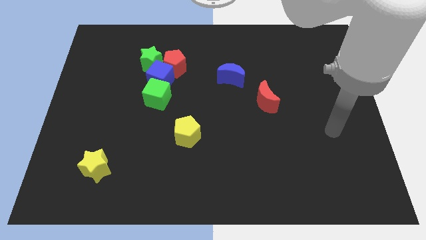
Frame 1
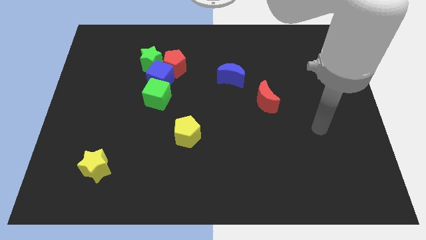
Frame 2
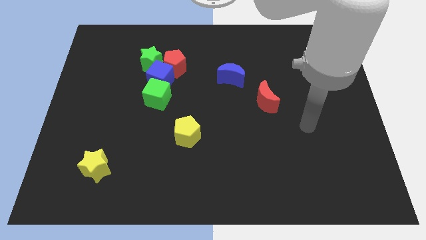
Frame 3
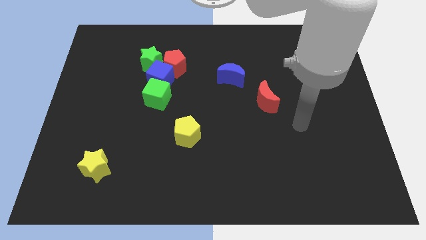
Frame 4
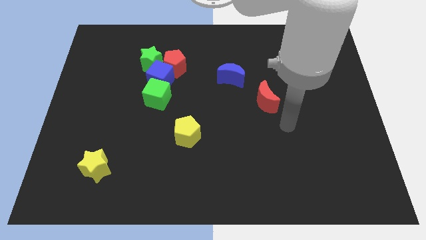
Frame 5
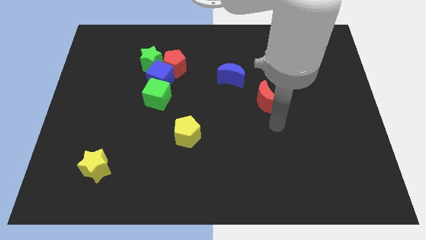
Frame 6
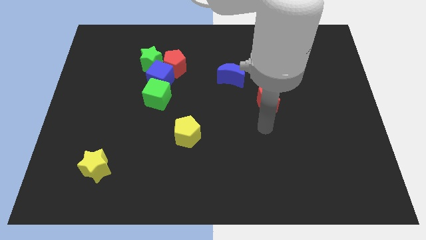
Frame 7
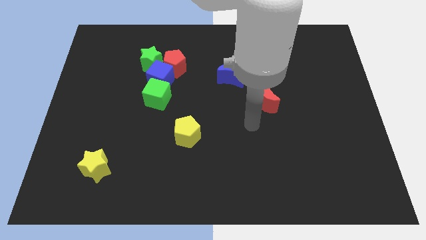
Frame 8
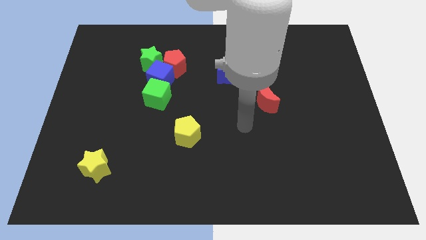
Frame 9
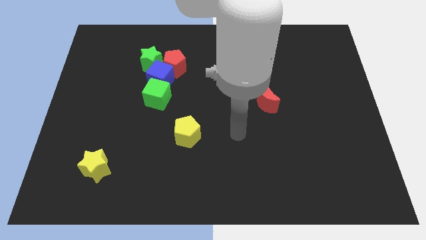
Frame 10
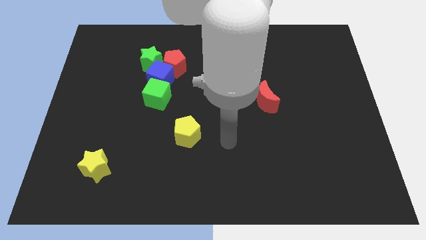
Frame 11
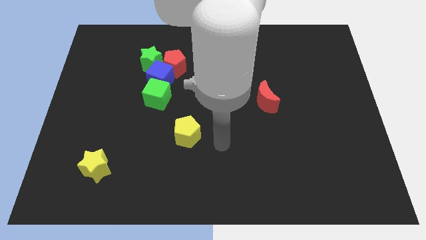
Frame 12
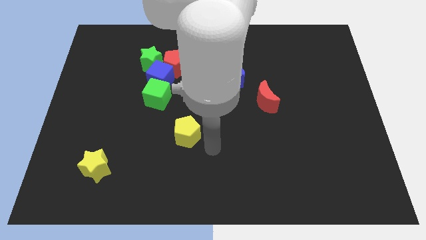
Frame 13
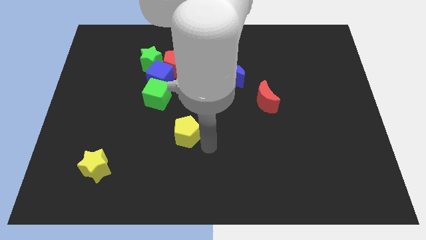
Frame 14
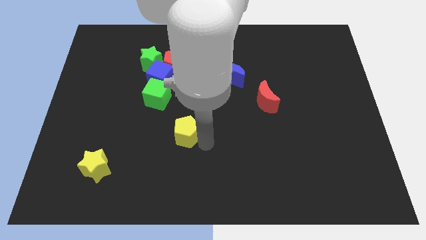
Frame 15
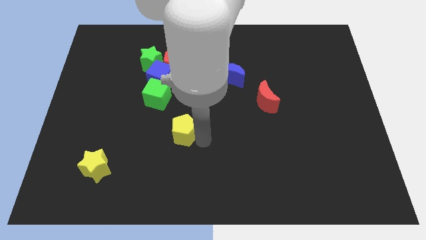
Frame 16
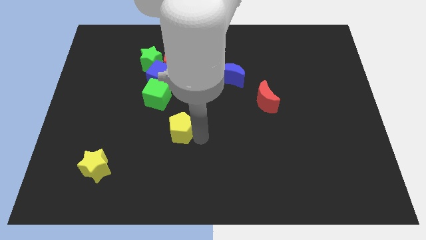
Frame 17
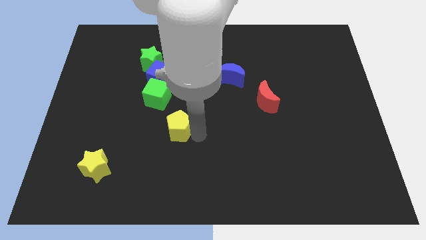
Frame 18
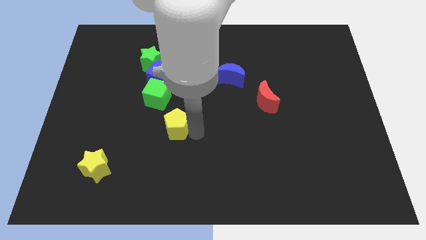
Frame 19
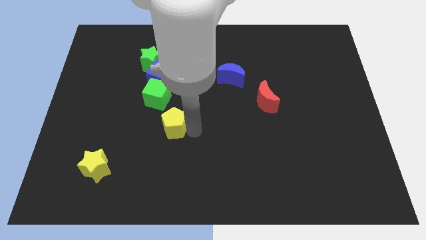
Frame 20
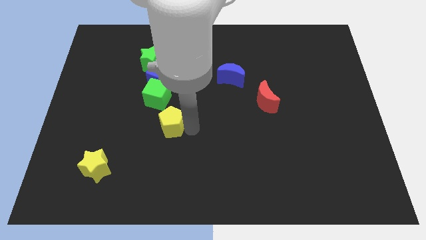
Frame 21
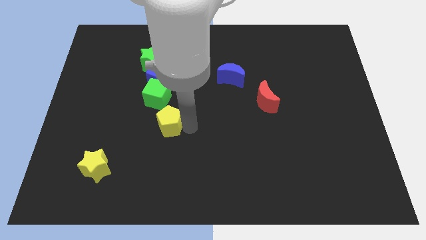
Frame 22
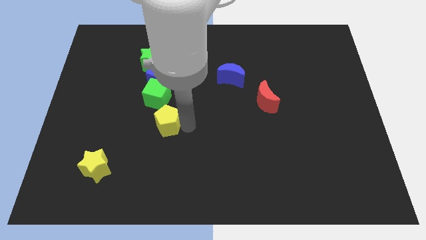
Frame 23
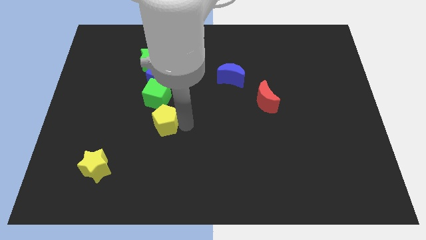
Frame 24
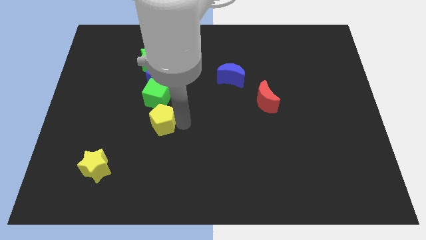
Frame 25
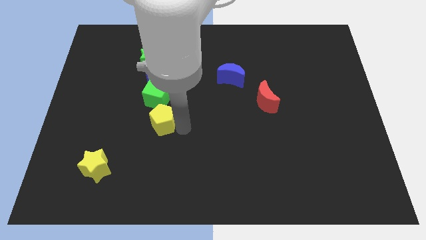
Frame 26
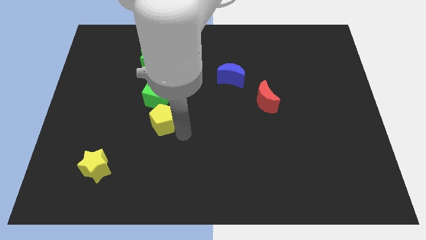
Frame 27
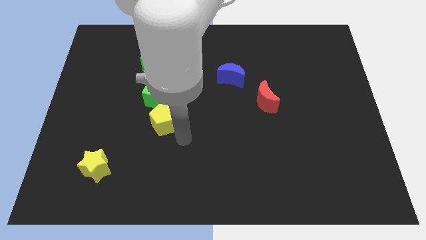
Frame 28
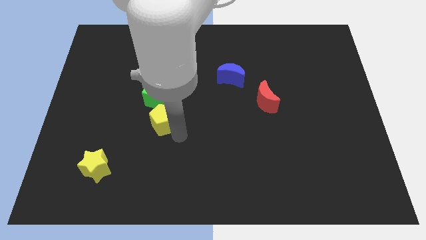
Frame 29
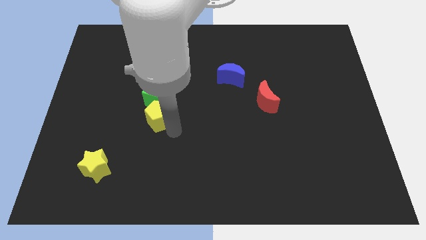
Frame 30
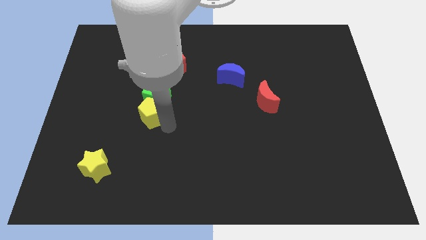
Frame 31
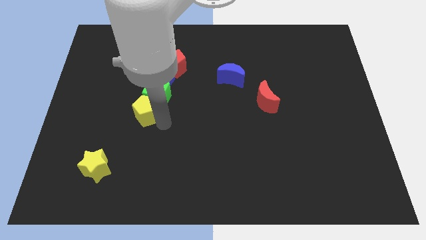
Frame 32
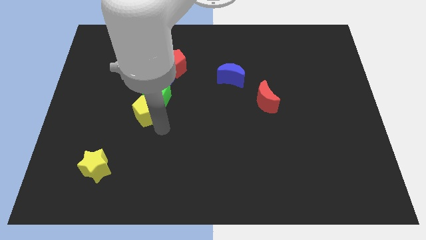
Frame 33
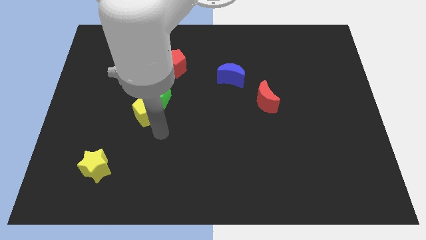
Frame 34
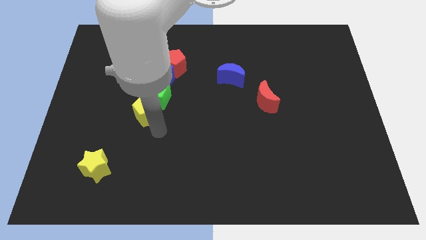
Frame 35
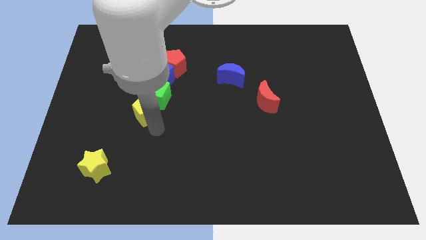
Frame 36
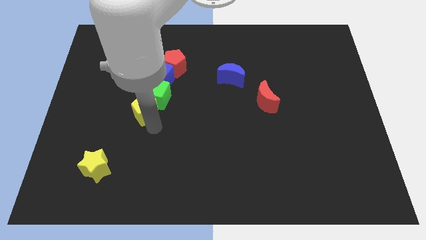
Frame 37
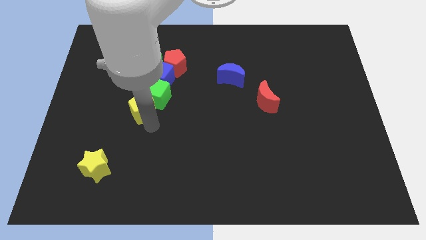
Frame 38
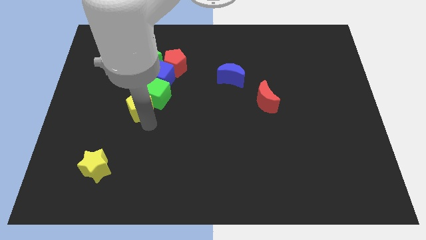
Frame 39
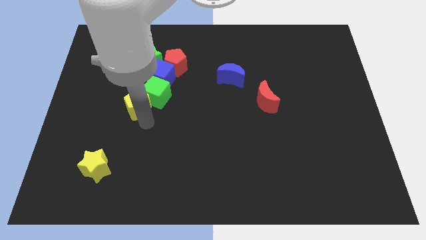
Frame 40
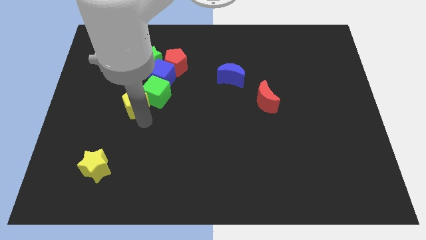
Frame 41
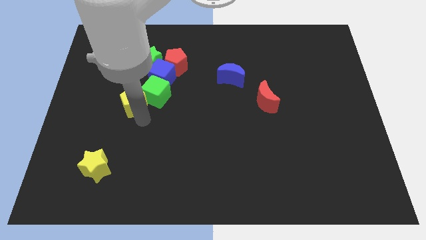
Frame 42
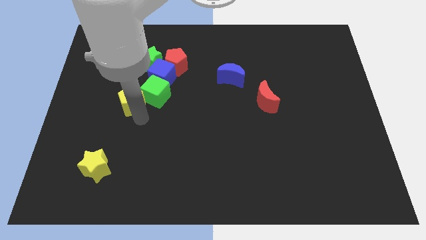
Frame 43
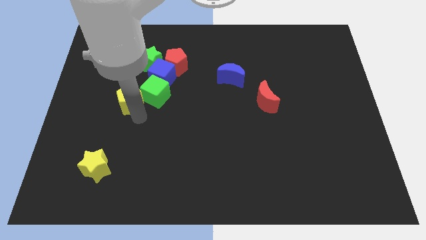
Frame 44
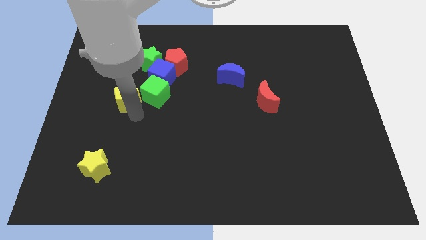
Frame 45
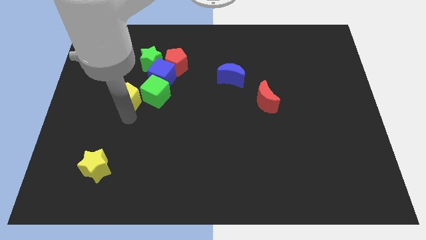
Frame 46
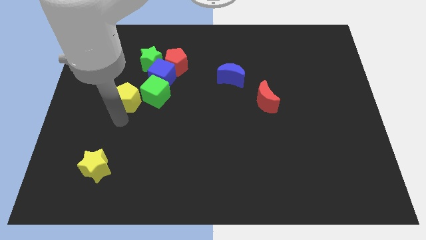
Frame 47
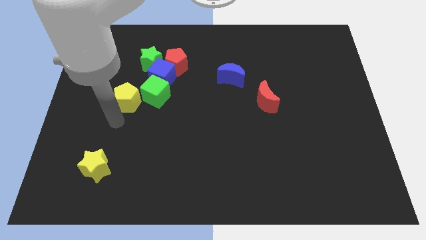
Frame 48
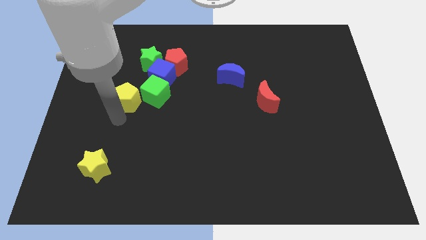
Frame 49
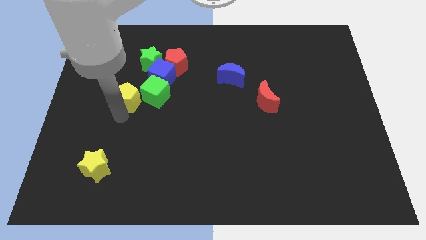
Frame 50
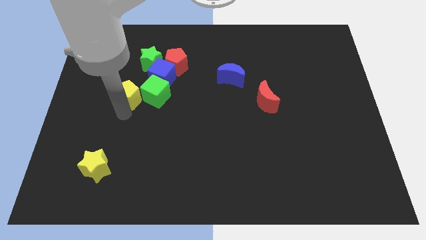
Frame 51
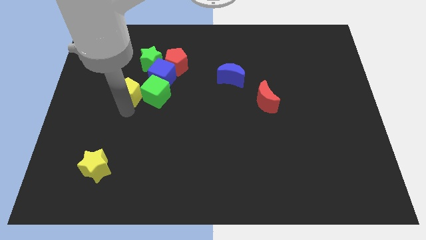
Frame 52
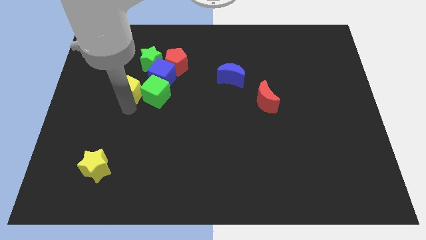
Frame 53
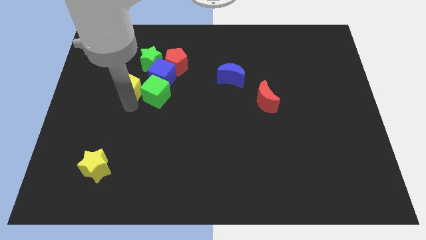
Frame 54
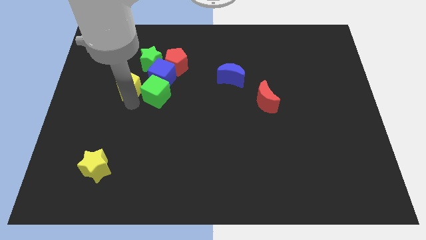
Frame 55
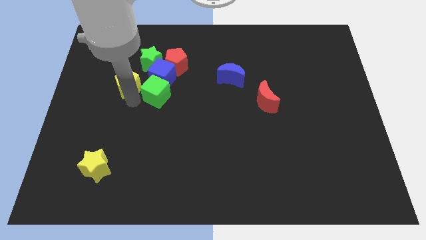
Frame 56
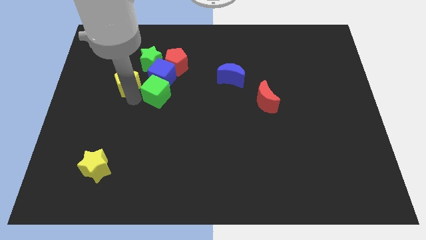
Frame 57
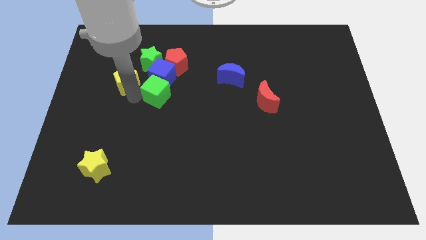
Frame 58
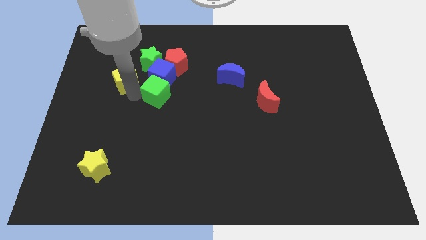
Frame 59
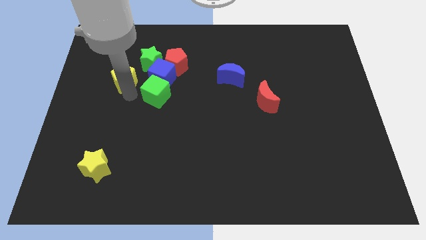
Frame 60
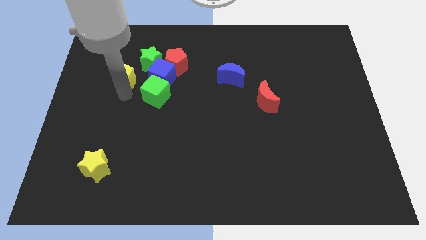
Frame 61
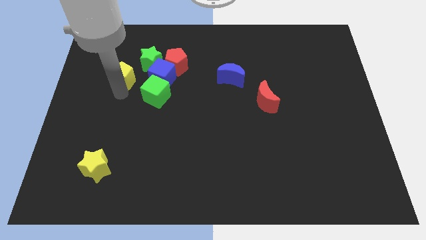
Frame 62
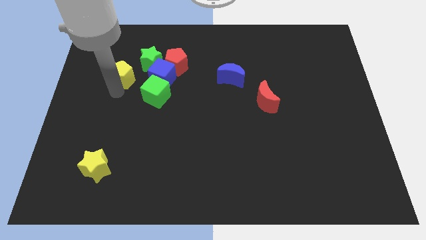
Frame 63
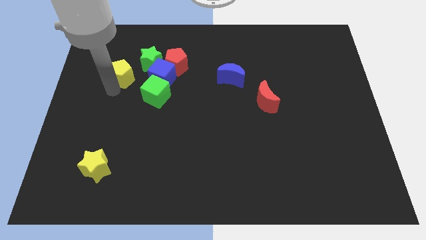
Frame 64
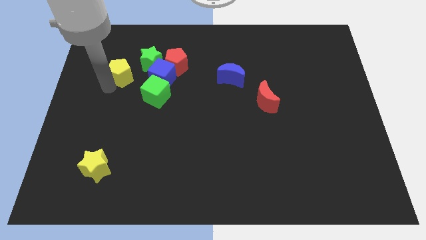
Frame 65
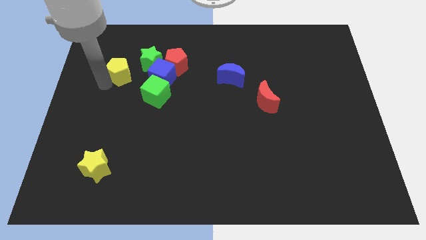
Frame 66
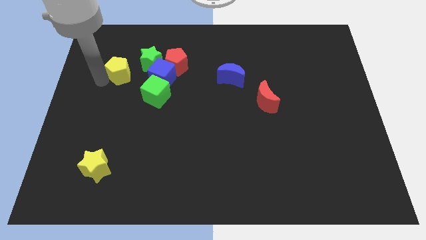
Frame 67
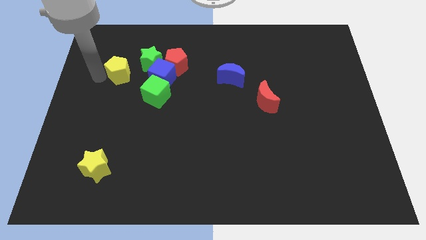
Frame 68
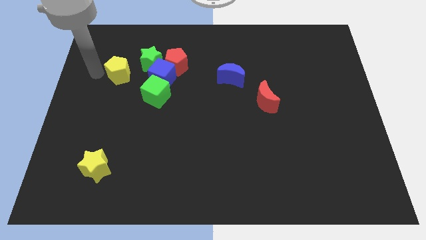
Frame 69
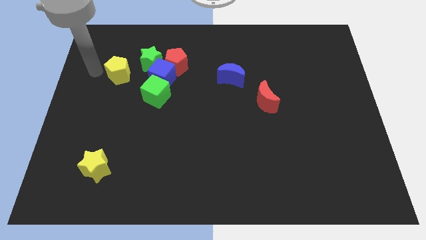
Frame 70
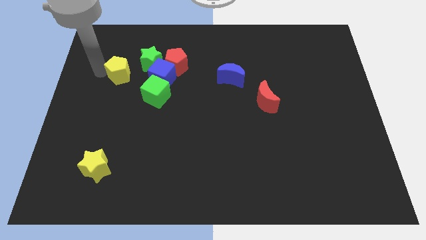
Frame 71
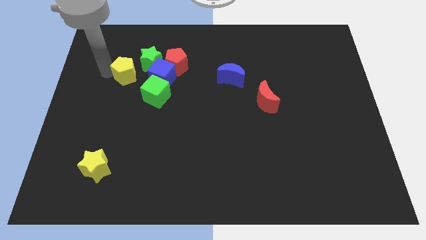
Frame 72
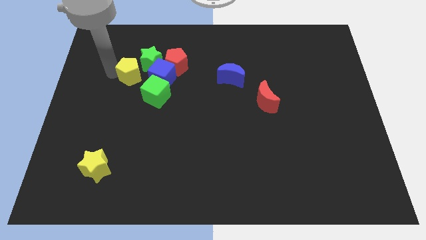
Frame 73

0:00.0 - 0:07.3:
put the yellow pentagon next to the green star

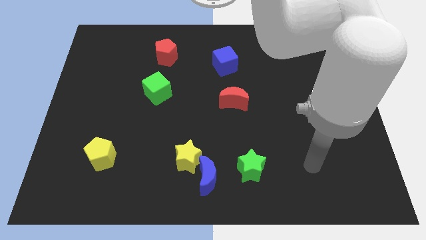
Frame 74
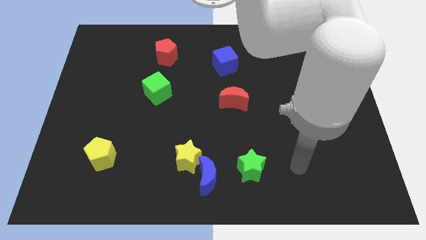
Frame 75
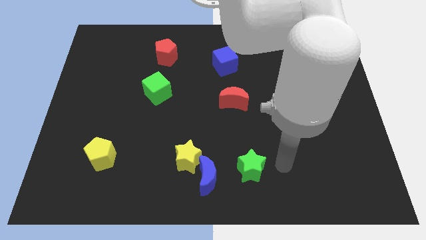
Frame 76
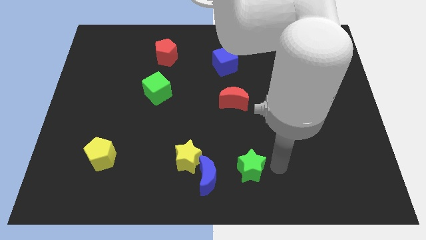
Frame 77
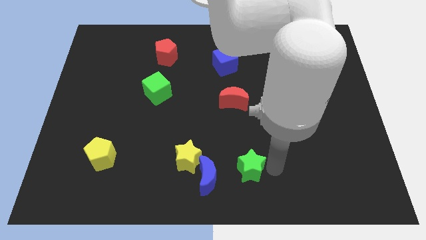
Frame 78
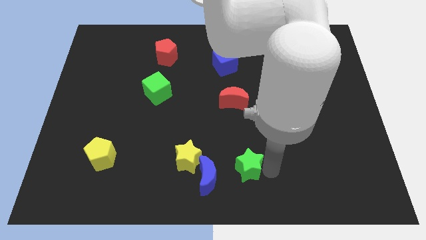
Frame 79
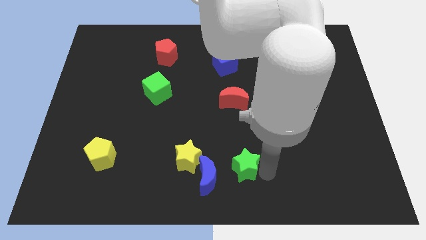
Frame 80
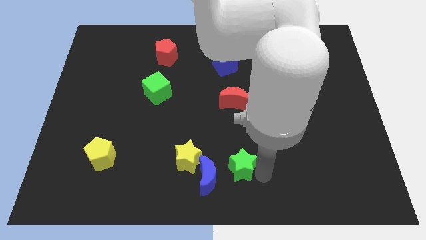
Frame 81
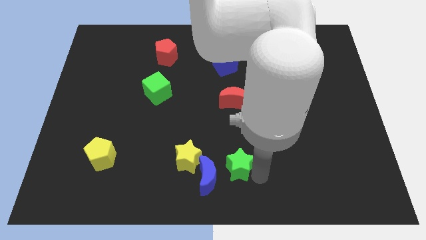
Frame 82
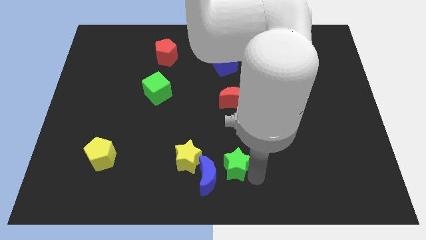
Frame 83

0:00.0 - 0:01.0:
move the green star next to the blue moon
